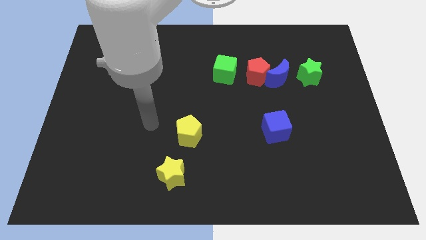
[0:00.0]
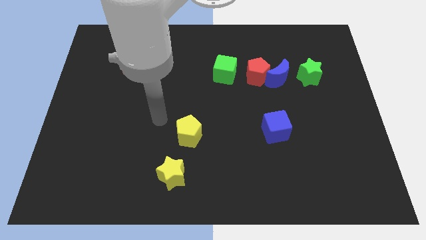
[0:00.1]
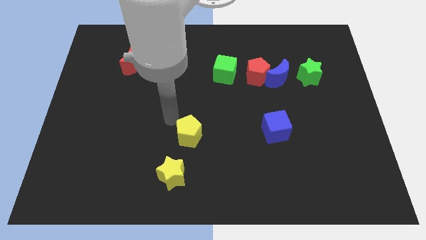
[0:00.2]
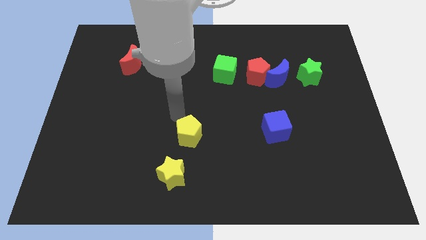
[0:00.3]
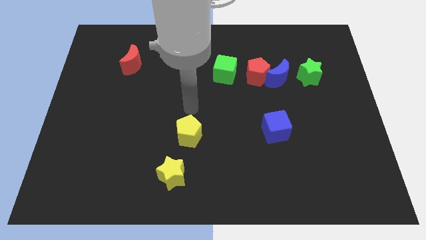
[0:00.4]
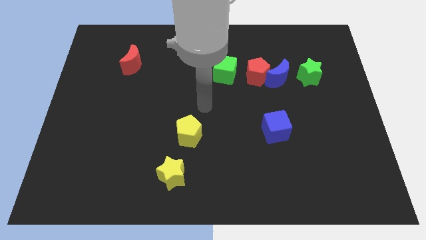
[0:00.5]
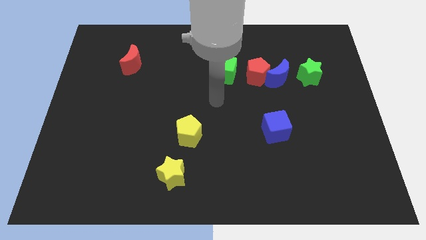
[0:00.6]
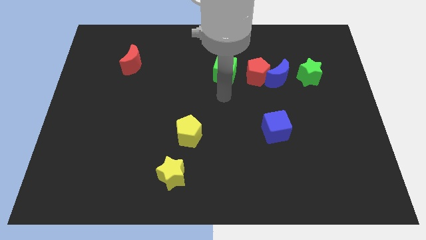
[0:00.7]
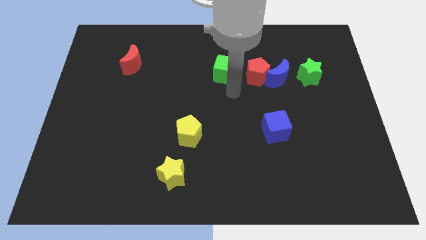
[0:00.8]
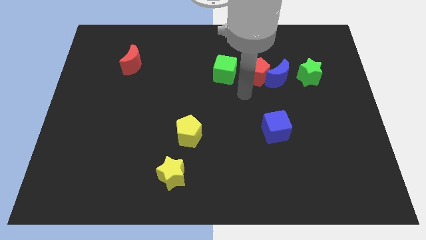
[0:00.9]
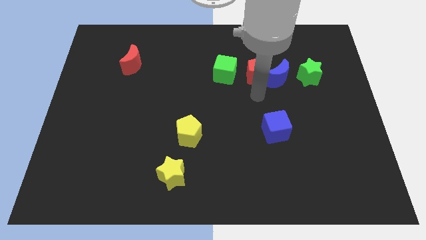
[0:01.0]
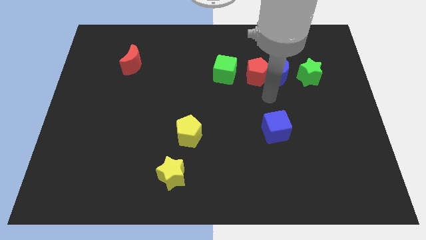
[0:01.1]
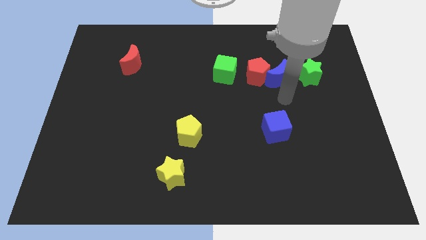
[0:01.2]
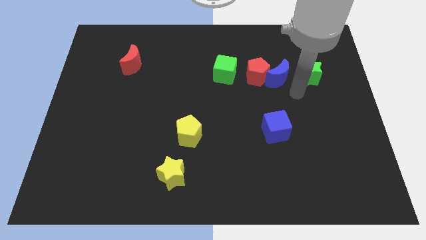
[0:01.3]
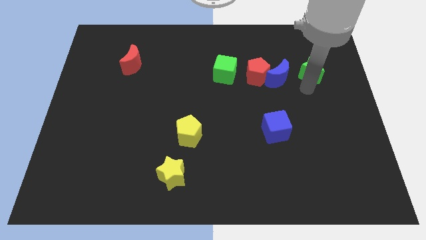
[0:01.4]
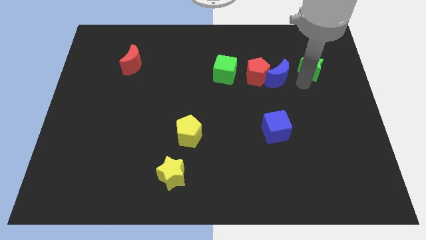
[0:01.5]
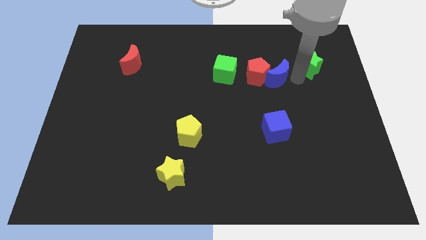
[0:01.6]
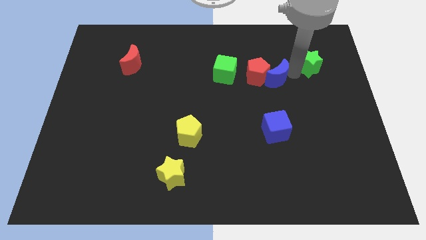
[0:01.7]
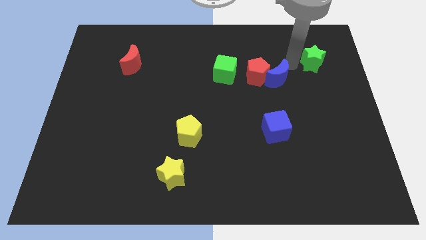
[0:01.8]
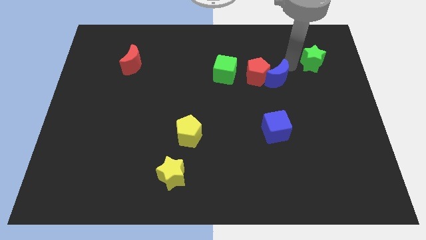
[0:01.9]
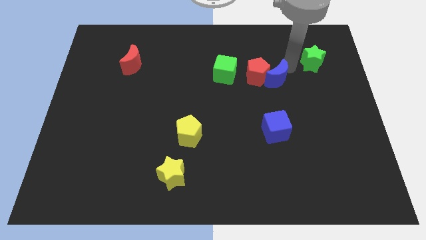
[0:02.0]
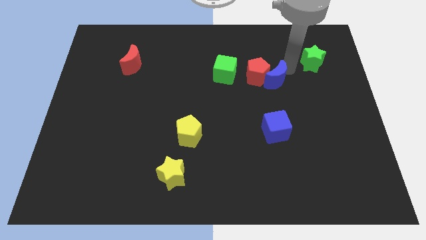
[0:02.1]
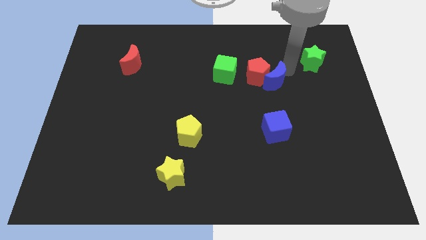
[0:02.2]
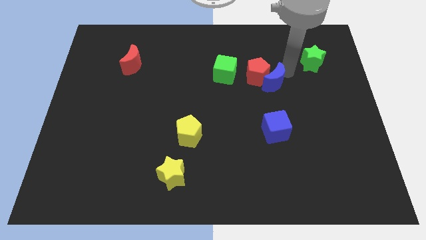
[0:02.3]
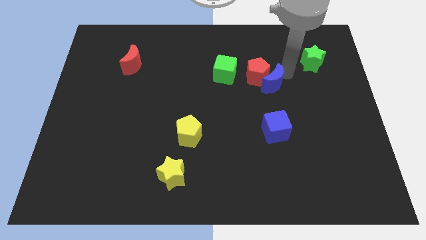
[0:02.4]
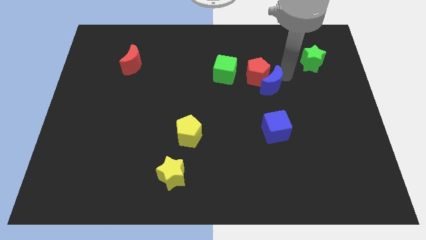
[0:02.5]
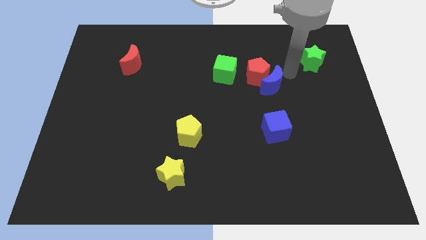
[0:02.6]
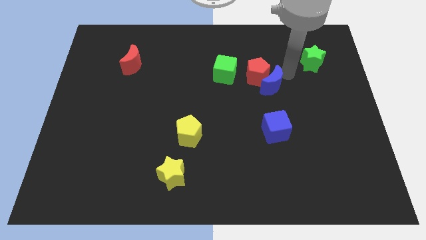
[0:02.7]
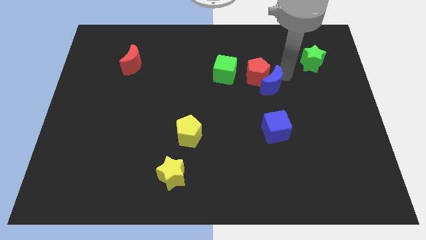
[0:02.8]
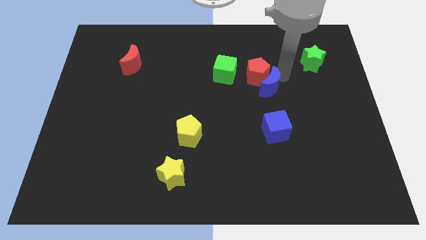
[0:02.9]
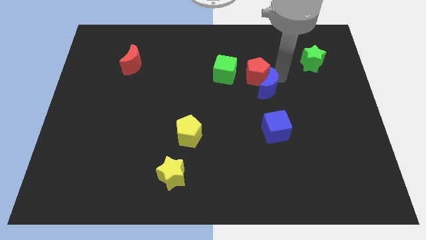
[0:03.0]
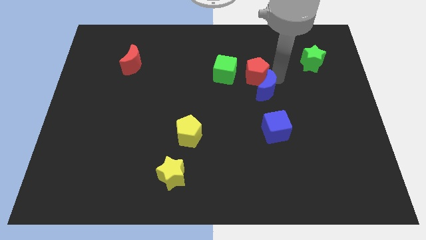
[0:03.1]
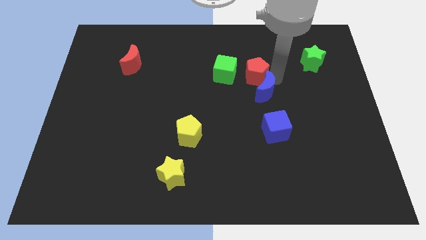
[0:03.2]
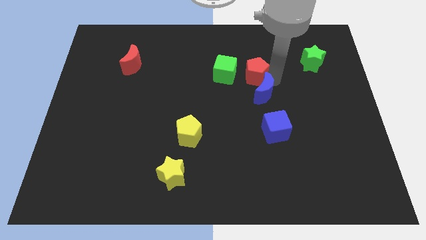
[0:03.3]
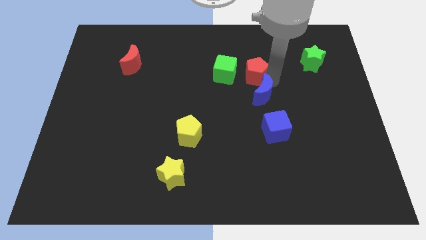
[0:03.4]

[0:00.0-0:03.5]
move the blue moon down and to the left diagonally a little

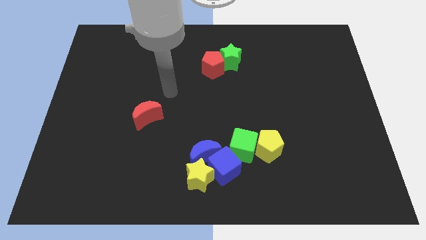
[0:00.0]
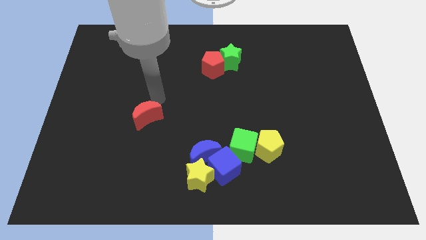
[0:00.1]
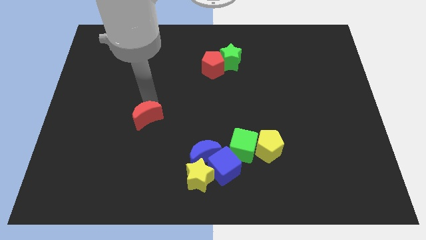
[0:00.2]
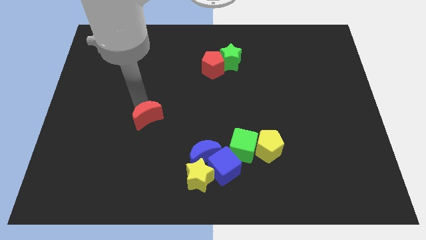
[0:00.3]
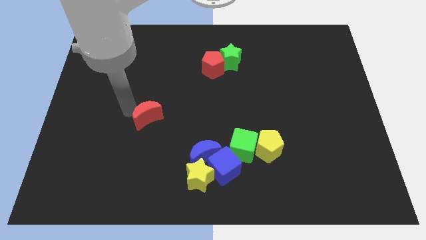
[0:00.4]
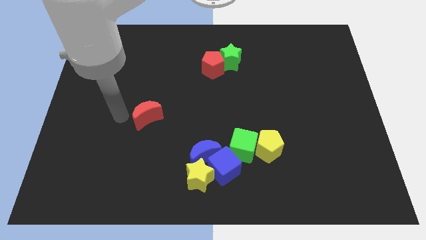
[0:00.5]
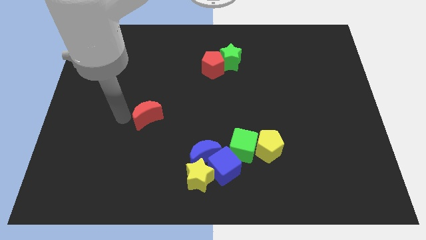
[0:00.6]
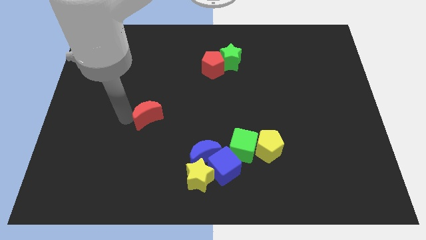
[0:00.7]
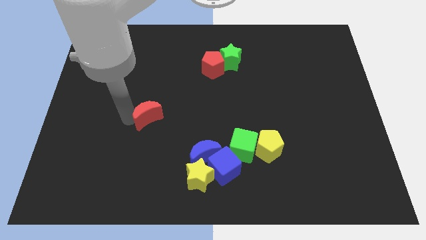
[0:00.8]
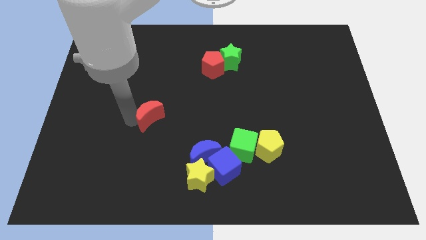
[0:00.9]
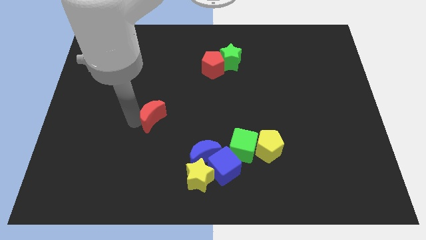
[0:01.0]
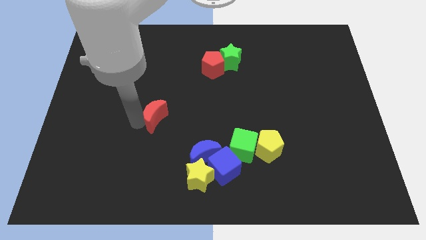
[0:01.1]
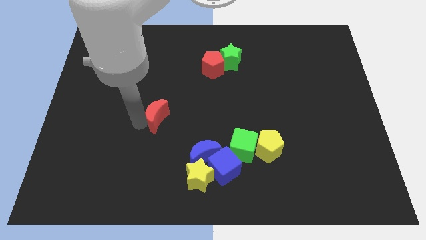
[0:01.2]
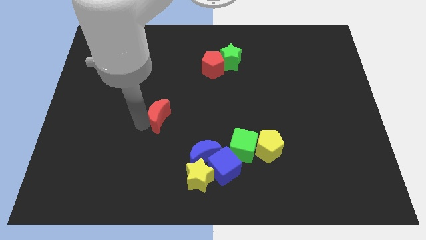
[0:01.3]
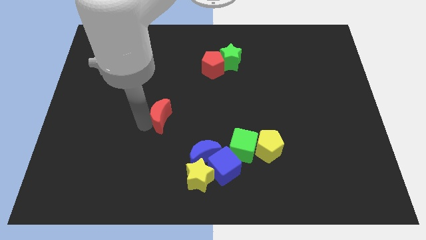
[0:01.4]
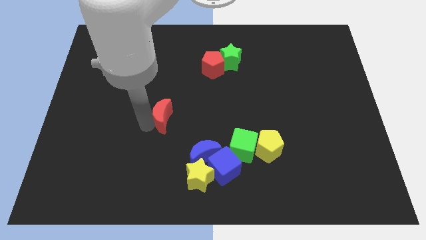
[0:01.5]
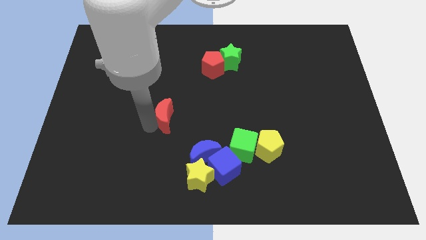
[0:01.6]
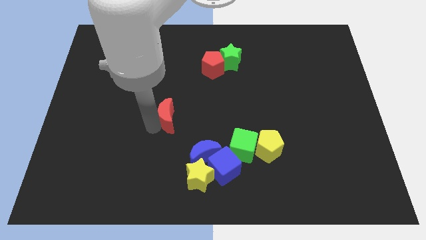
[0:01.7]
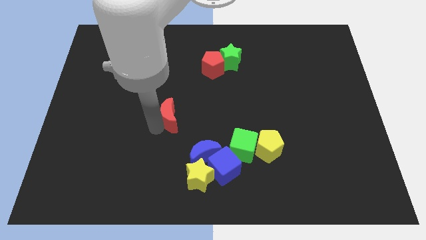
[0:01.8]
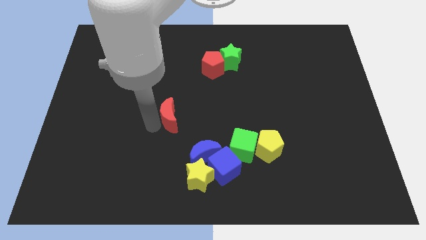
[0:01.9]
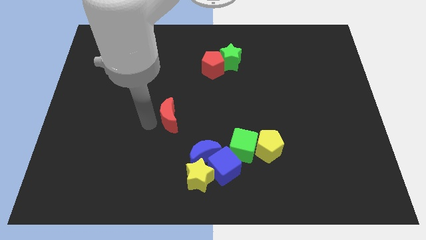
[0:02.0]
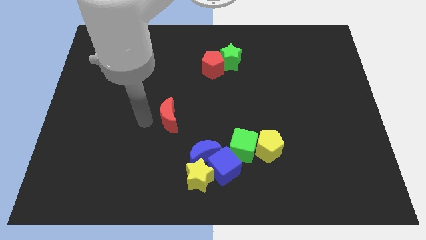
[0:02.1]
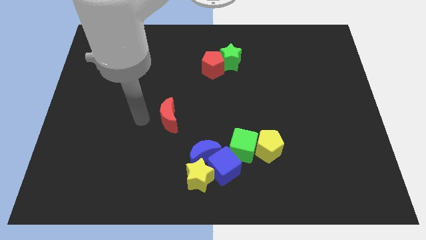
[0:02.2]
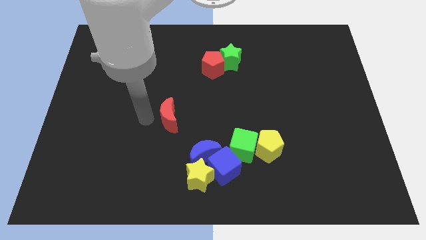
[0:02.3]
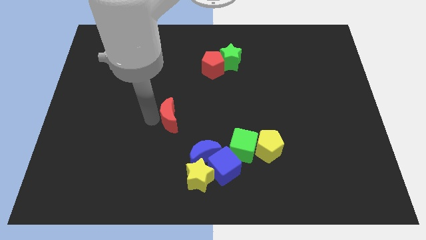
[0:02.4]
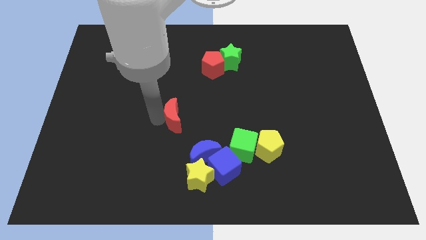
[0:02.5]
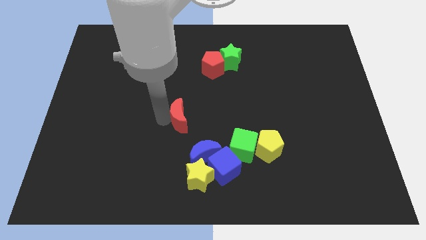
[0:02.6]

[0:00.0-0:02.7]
slide the red moon to the right somewhat

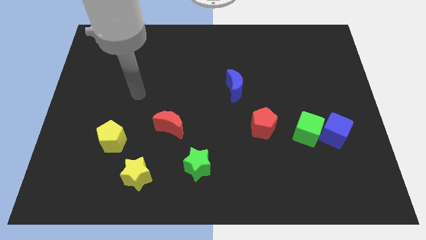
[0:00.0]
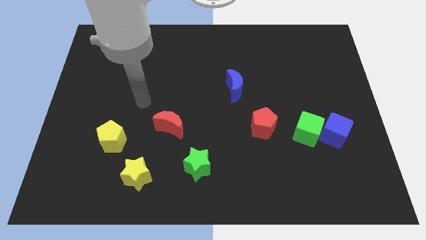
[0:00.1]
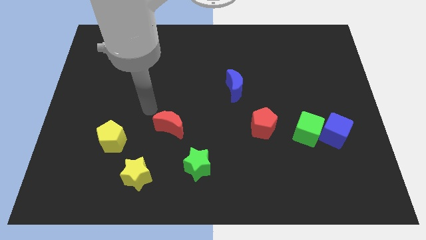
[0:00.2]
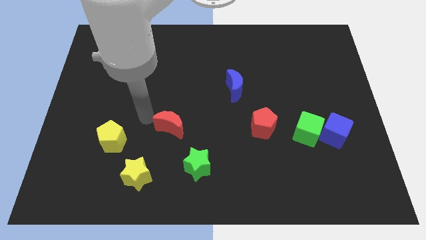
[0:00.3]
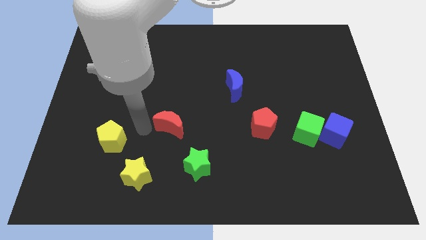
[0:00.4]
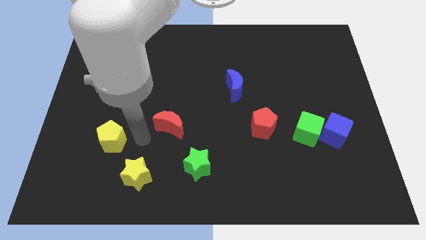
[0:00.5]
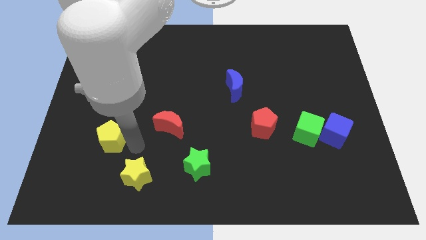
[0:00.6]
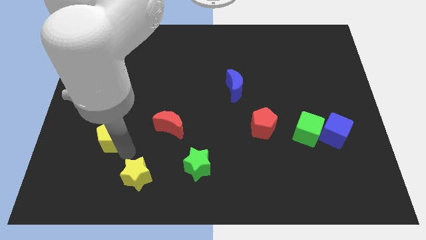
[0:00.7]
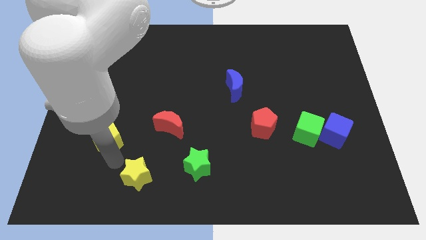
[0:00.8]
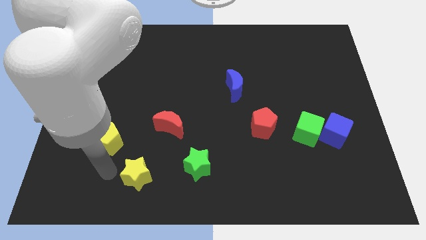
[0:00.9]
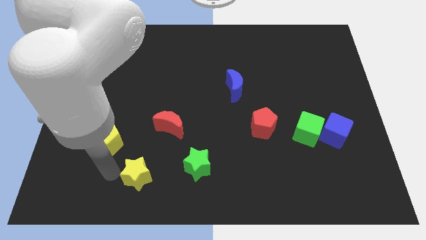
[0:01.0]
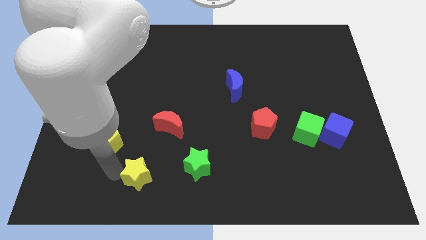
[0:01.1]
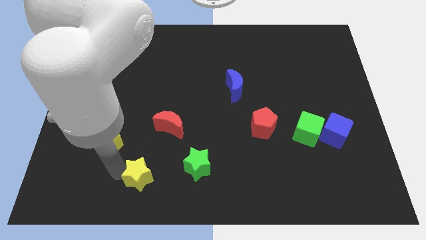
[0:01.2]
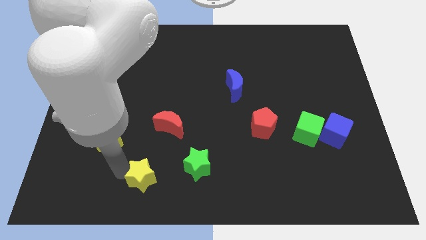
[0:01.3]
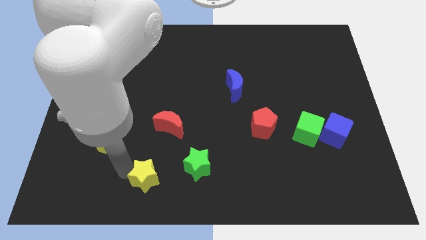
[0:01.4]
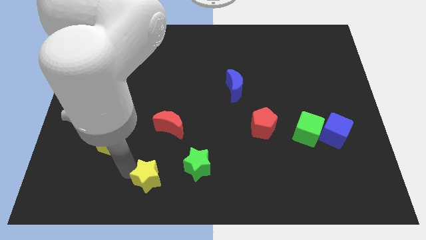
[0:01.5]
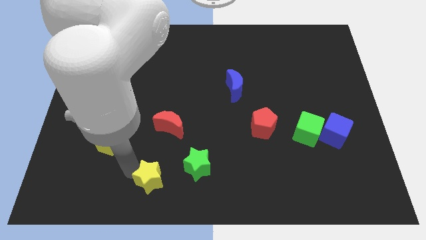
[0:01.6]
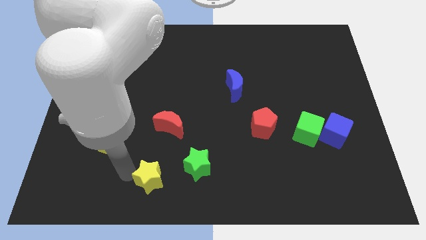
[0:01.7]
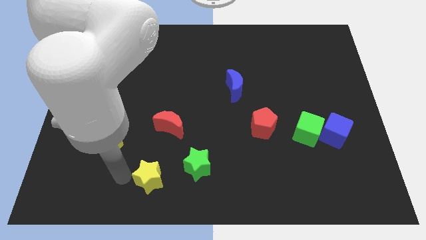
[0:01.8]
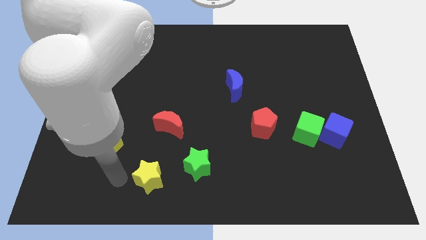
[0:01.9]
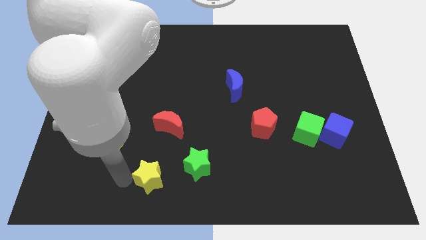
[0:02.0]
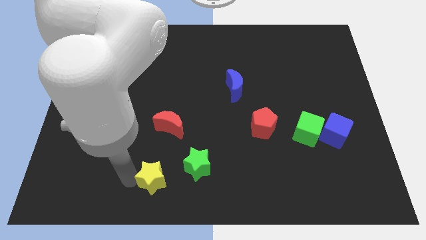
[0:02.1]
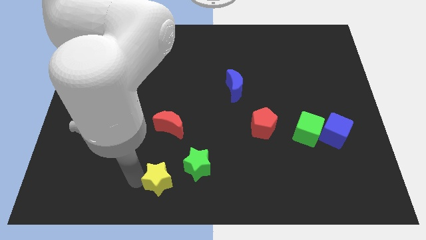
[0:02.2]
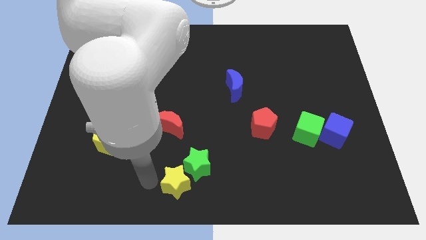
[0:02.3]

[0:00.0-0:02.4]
slightly move the yellow star right
